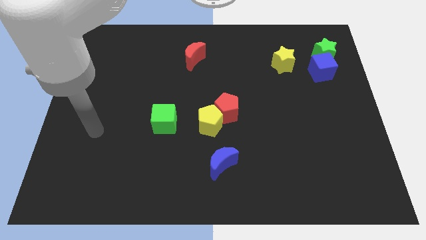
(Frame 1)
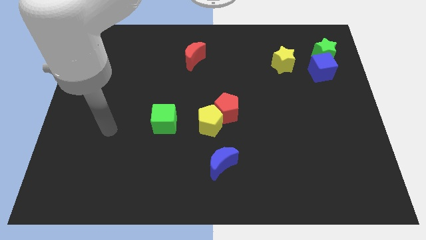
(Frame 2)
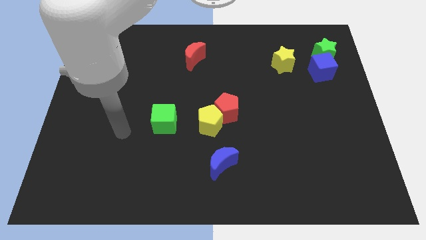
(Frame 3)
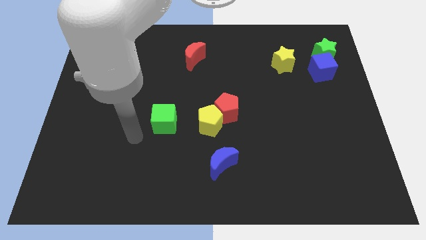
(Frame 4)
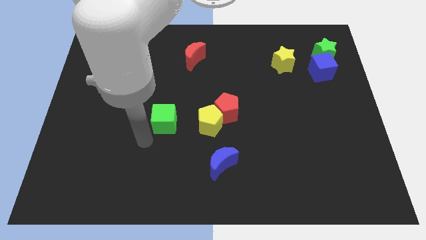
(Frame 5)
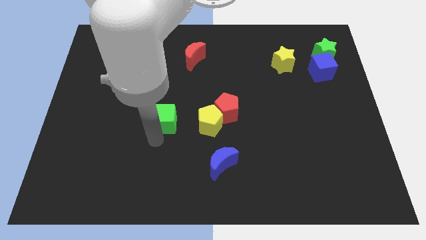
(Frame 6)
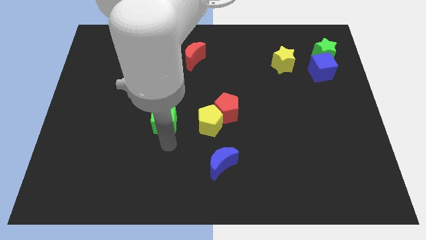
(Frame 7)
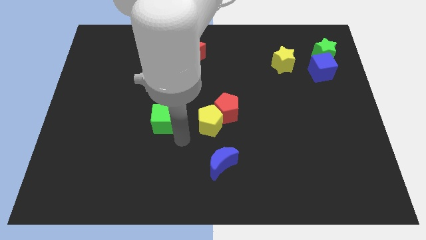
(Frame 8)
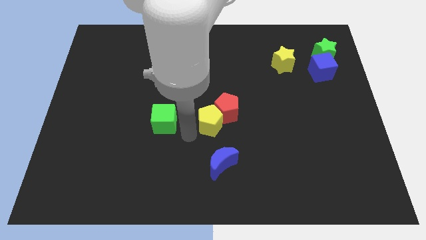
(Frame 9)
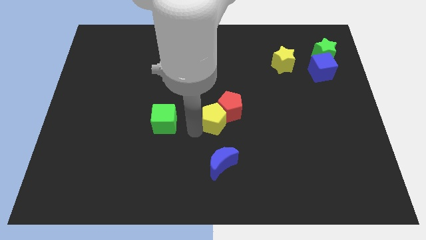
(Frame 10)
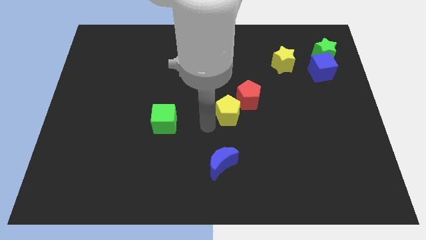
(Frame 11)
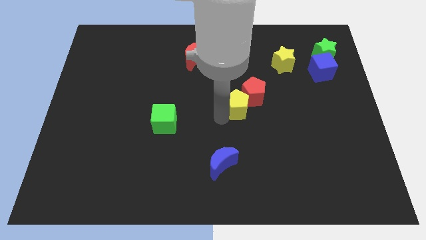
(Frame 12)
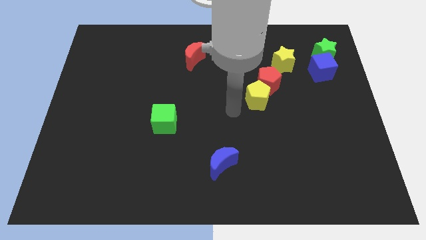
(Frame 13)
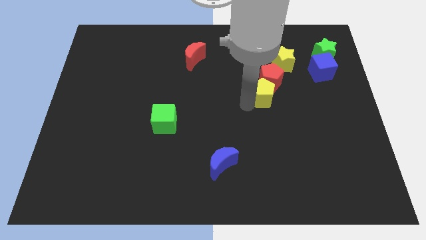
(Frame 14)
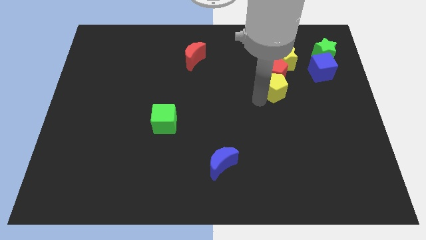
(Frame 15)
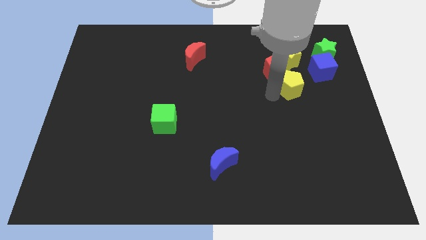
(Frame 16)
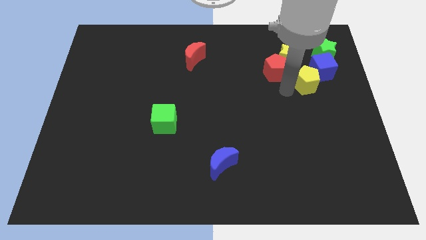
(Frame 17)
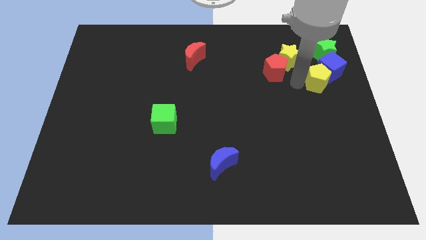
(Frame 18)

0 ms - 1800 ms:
separate the red pentagon from the yellow pentagon

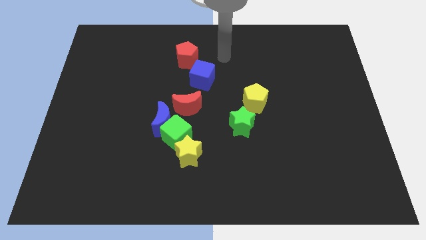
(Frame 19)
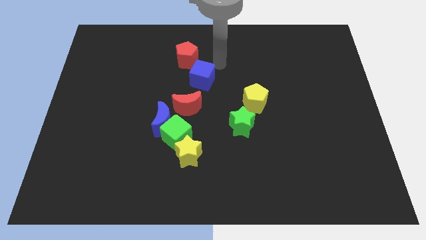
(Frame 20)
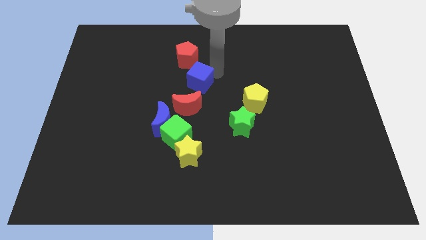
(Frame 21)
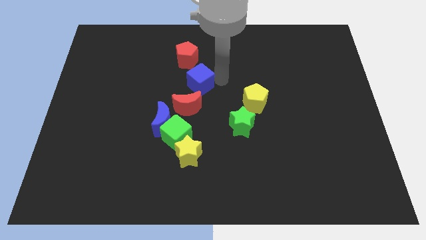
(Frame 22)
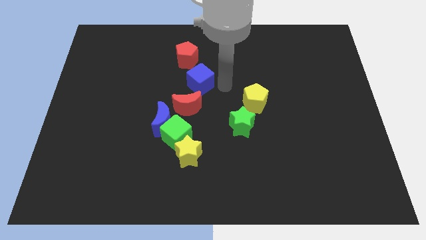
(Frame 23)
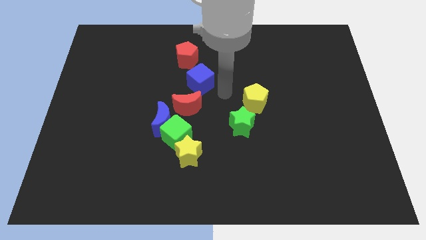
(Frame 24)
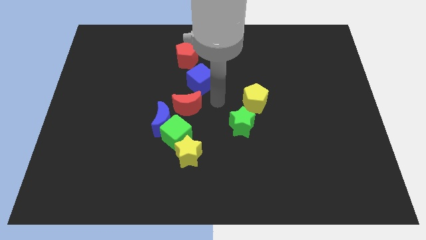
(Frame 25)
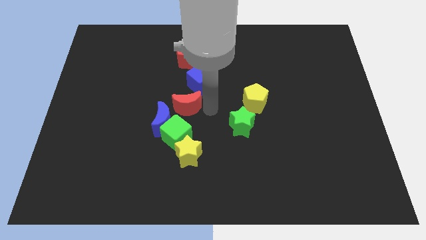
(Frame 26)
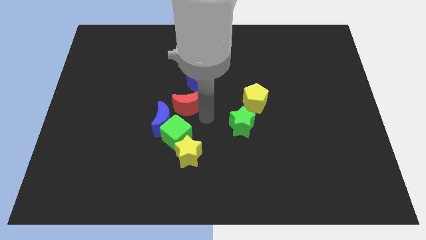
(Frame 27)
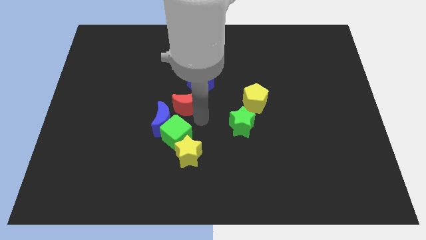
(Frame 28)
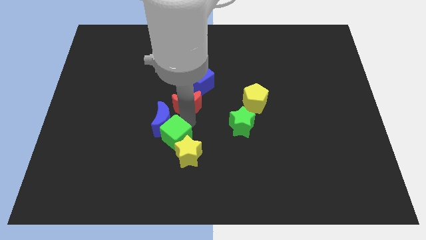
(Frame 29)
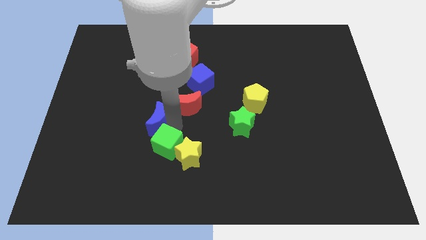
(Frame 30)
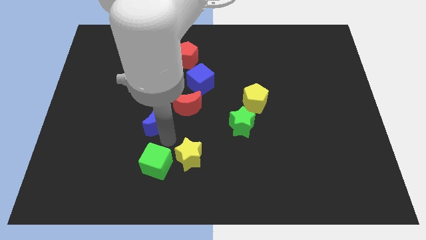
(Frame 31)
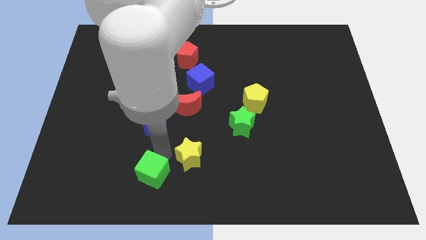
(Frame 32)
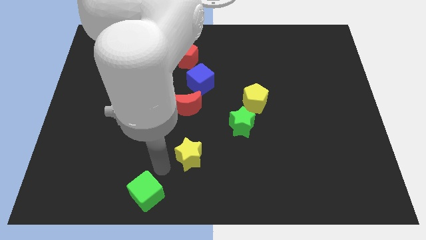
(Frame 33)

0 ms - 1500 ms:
separate the yellow star from the green cube

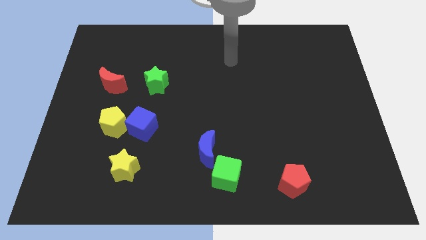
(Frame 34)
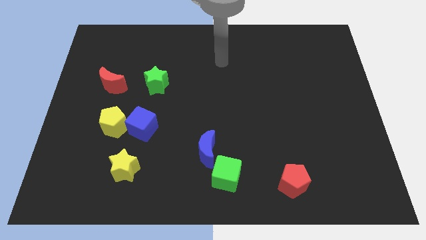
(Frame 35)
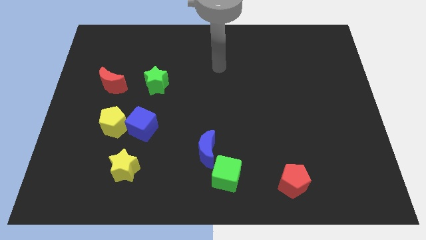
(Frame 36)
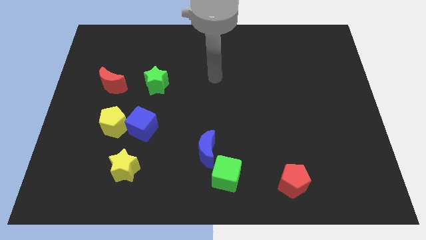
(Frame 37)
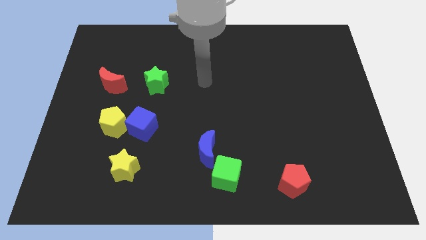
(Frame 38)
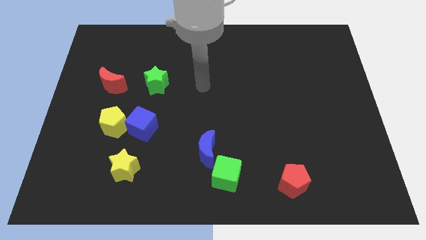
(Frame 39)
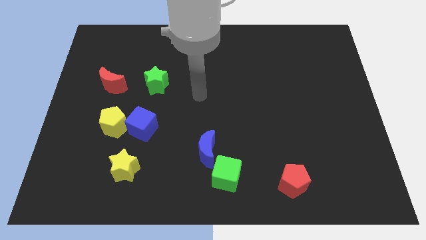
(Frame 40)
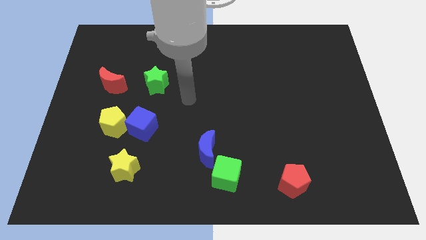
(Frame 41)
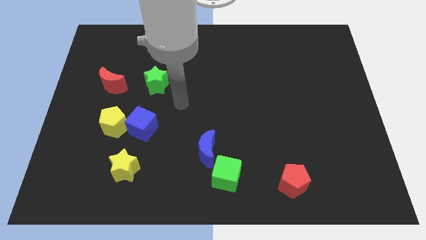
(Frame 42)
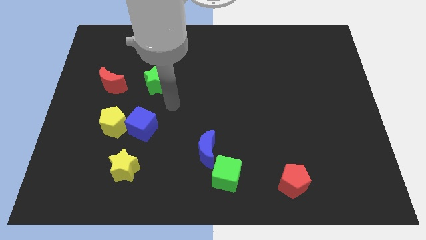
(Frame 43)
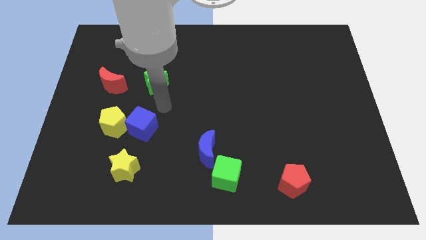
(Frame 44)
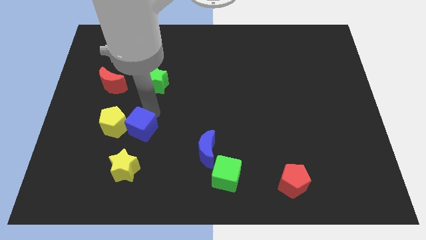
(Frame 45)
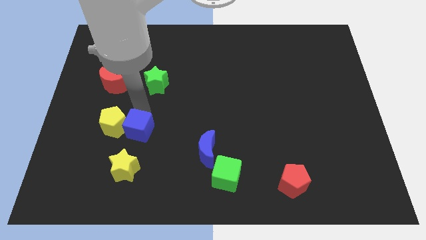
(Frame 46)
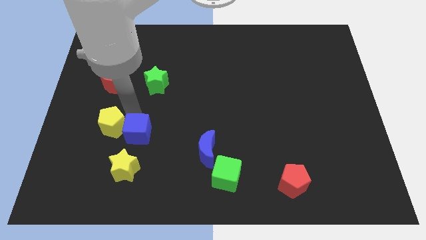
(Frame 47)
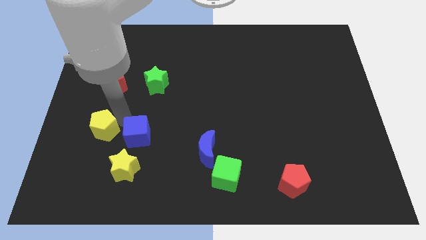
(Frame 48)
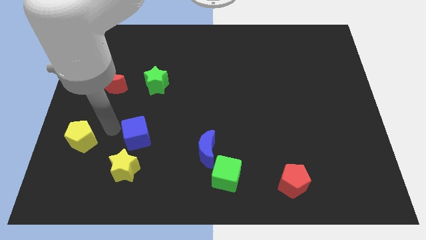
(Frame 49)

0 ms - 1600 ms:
pull the blue cube apart from the yellow pentagon

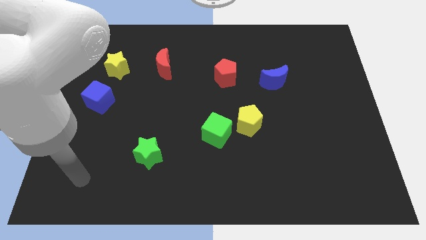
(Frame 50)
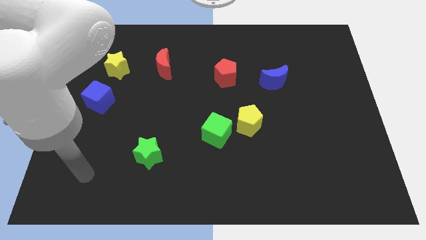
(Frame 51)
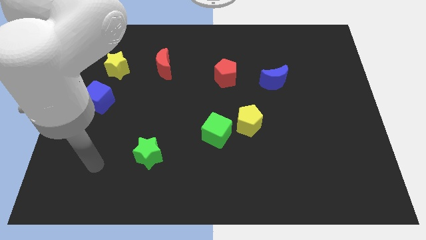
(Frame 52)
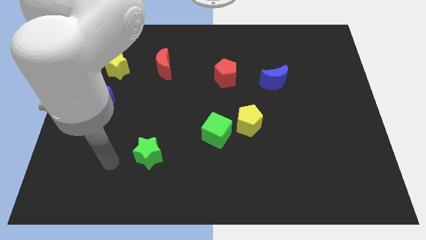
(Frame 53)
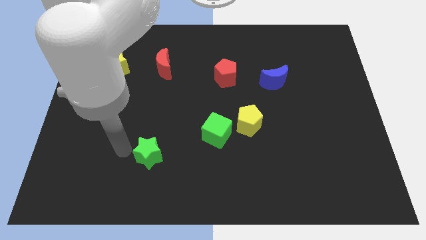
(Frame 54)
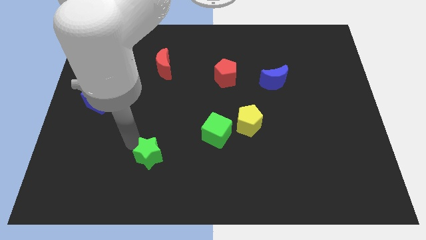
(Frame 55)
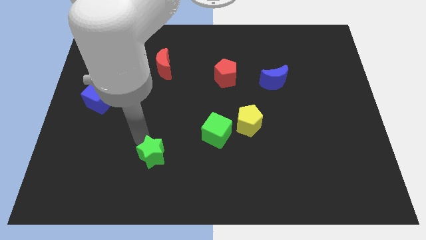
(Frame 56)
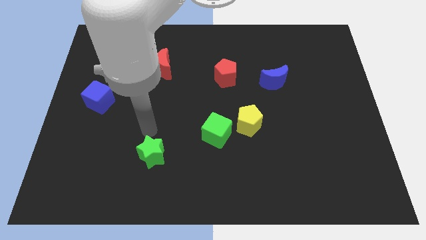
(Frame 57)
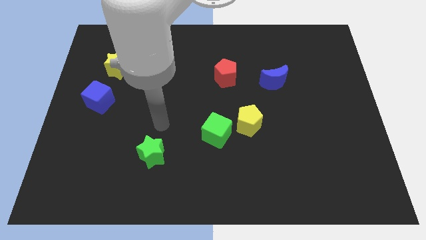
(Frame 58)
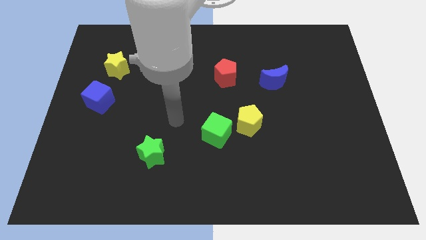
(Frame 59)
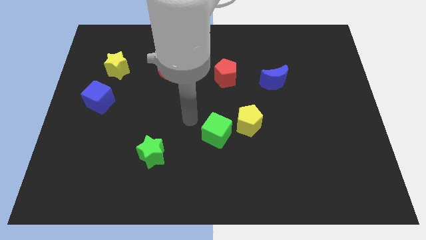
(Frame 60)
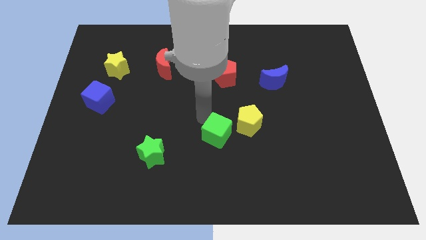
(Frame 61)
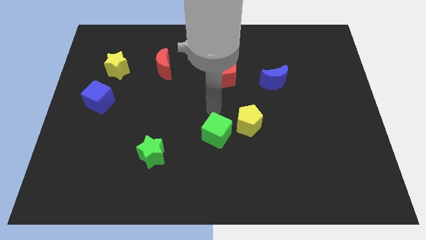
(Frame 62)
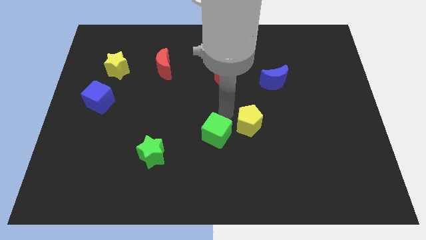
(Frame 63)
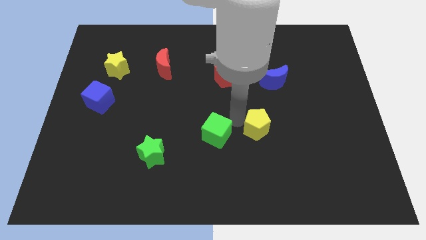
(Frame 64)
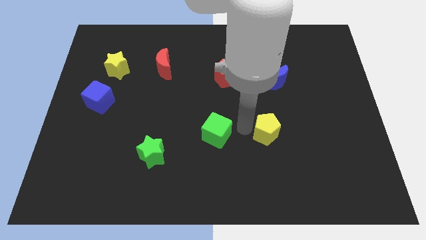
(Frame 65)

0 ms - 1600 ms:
move the green cube away from the yellow pentagon

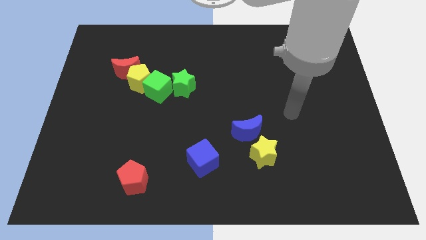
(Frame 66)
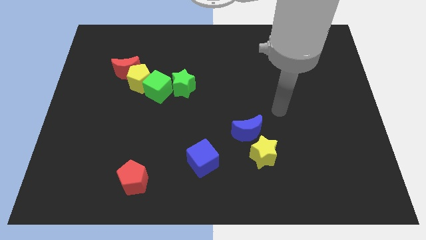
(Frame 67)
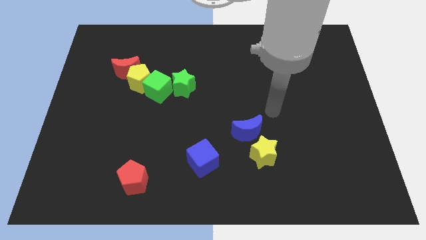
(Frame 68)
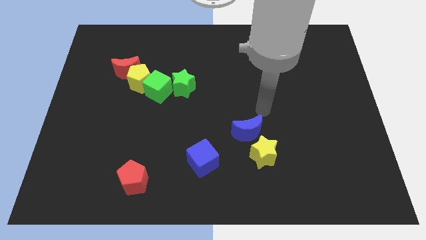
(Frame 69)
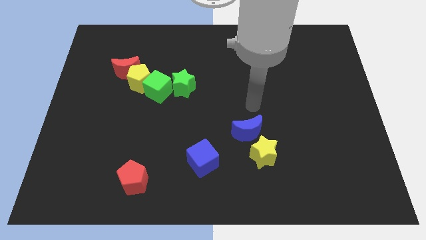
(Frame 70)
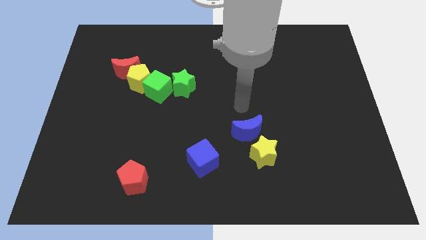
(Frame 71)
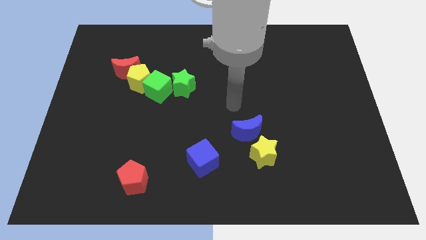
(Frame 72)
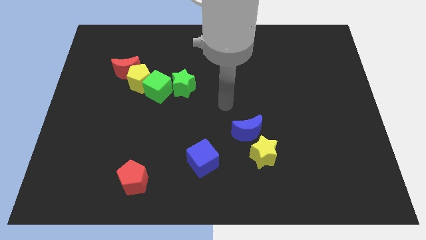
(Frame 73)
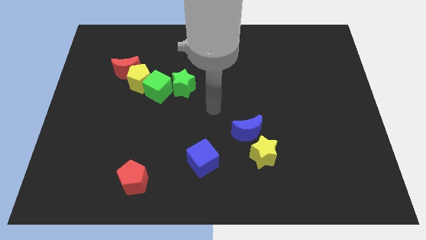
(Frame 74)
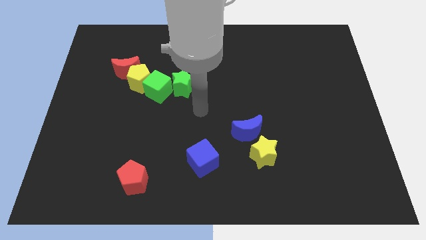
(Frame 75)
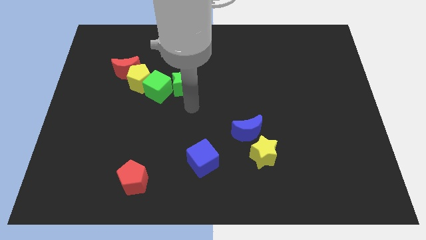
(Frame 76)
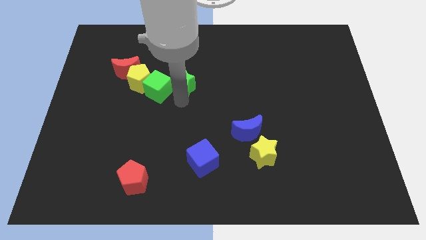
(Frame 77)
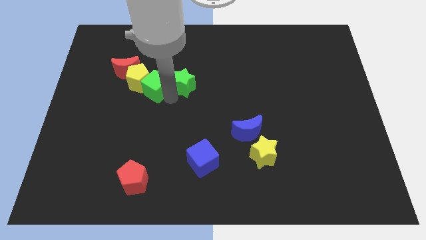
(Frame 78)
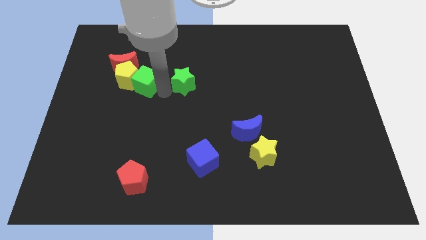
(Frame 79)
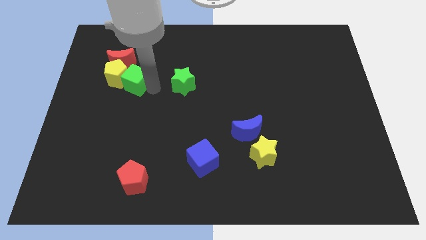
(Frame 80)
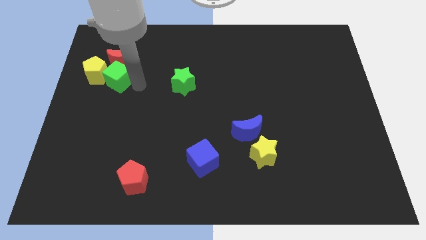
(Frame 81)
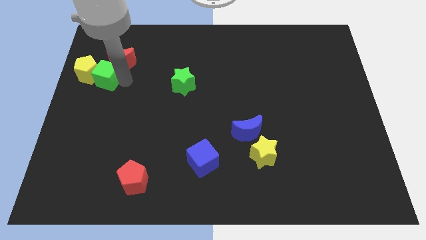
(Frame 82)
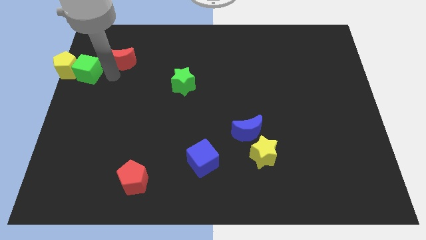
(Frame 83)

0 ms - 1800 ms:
move the red moon away from the yellow pentagon

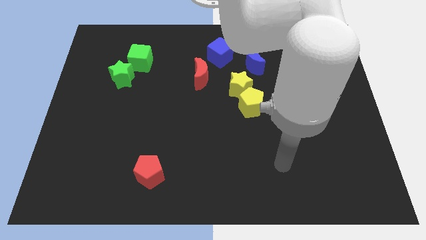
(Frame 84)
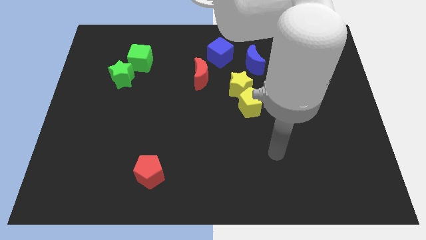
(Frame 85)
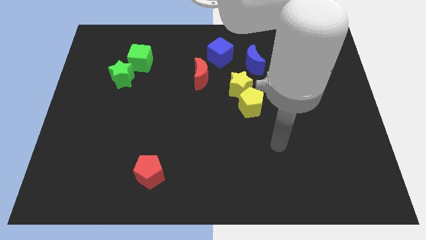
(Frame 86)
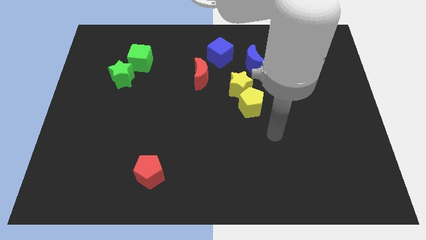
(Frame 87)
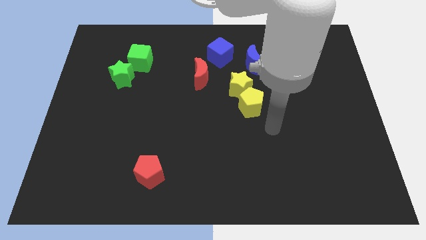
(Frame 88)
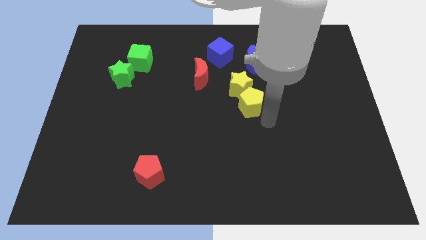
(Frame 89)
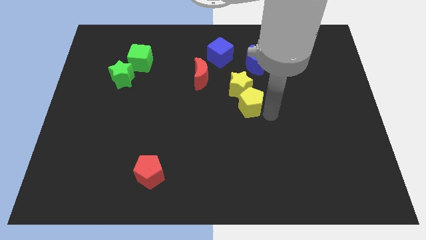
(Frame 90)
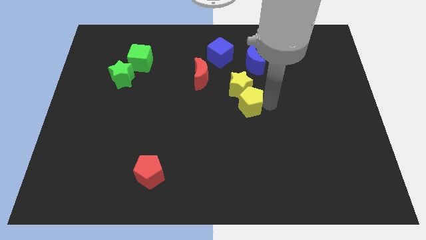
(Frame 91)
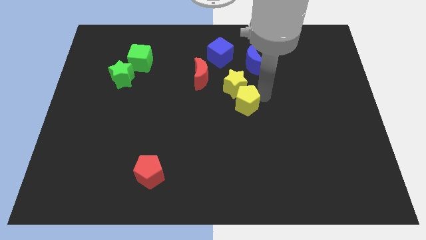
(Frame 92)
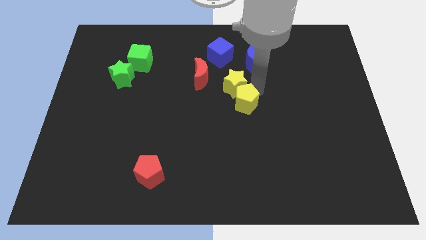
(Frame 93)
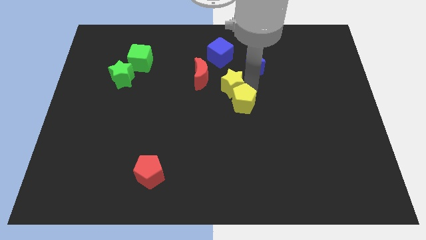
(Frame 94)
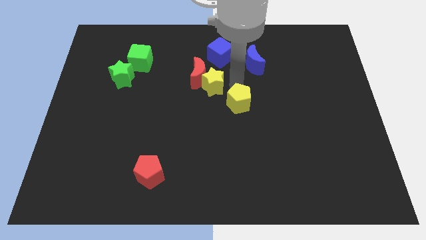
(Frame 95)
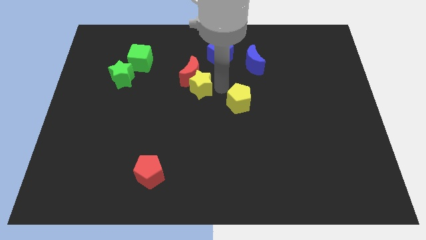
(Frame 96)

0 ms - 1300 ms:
move the yellow pentagon away from the yellow star
